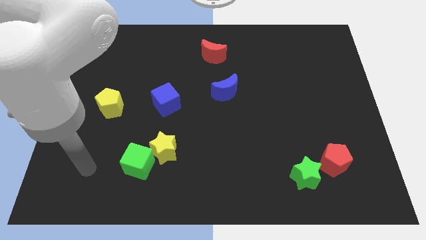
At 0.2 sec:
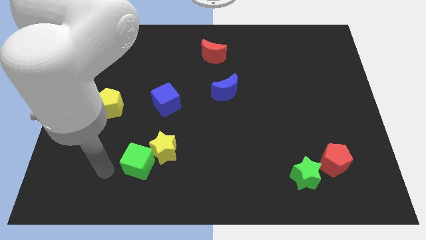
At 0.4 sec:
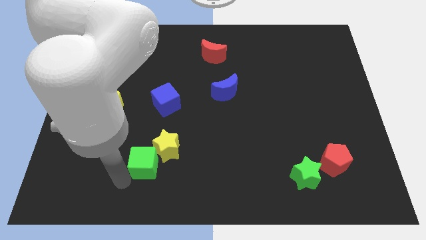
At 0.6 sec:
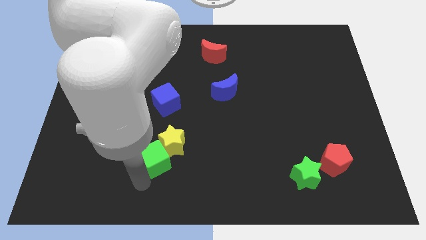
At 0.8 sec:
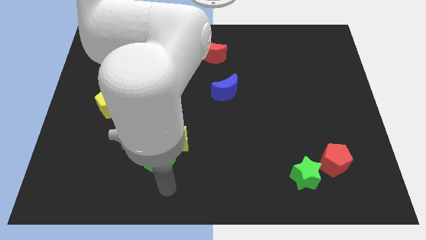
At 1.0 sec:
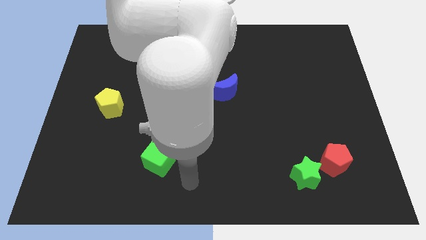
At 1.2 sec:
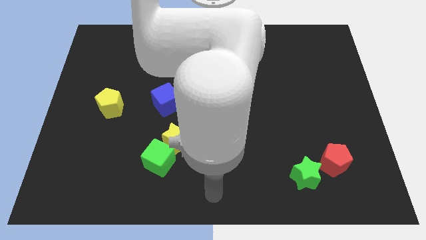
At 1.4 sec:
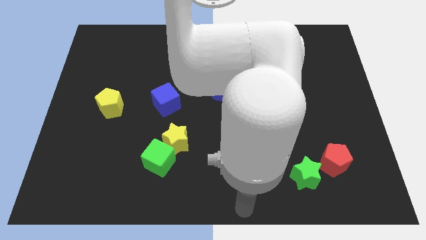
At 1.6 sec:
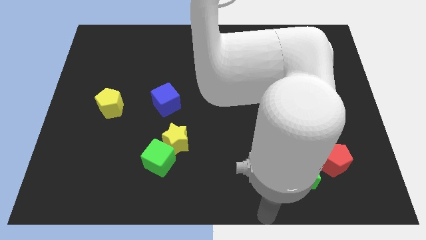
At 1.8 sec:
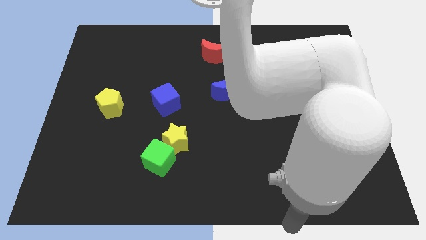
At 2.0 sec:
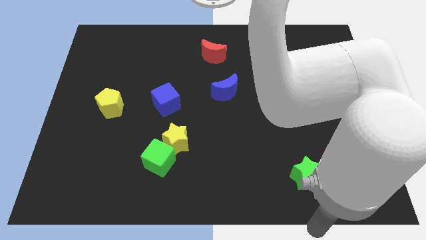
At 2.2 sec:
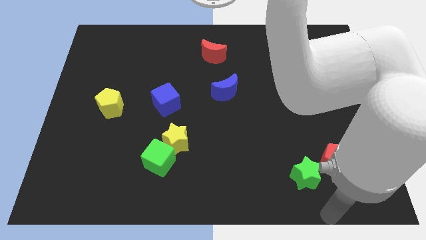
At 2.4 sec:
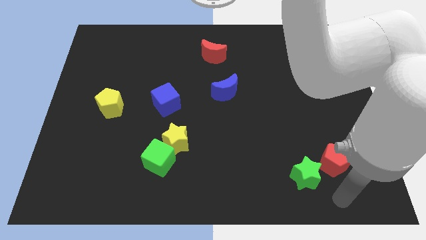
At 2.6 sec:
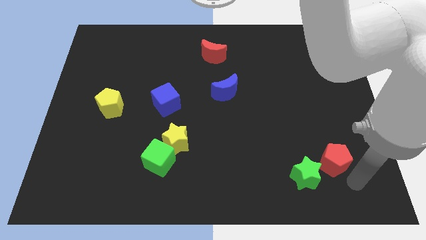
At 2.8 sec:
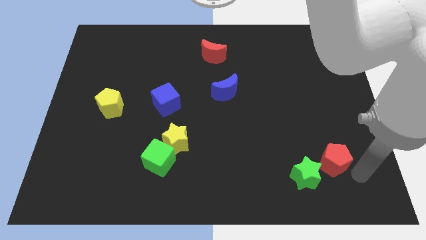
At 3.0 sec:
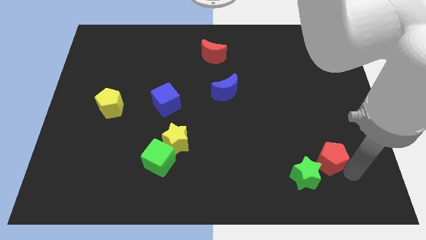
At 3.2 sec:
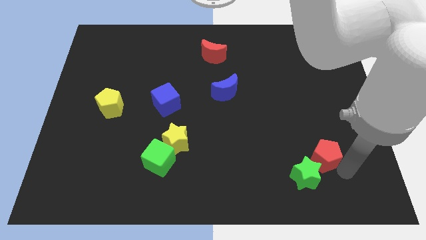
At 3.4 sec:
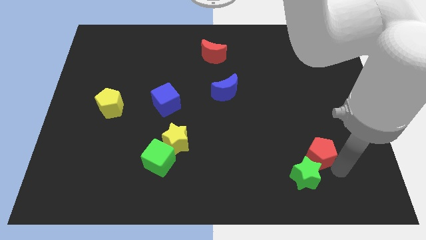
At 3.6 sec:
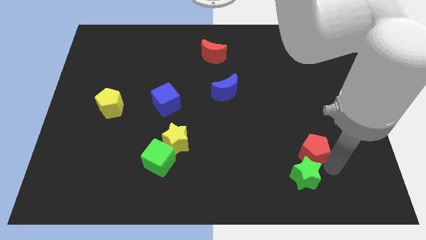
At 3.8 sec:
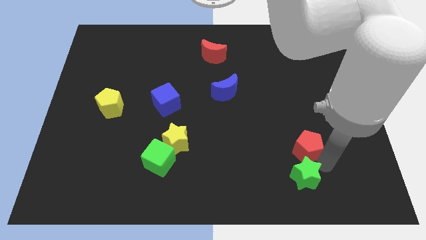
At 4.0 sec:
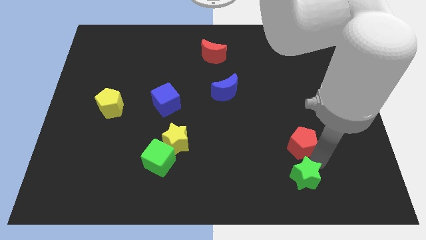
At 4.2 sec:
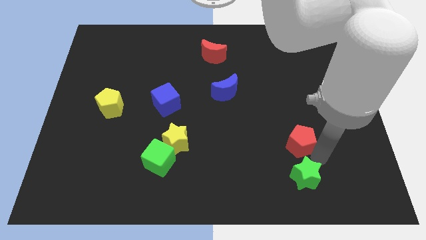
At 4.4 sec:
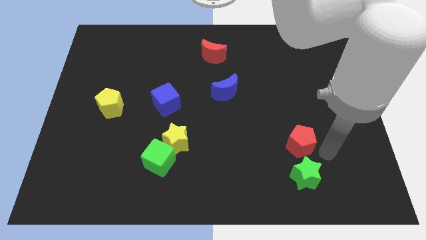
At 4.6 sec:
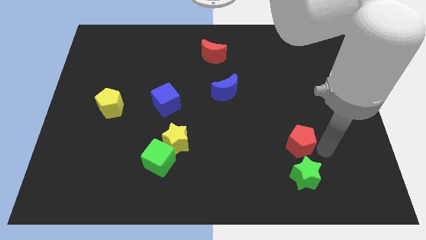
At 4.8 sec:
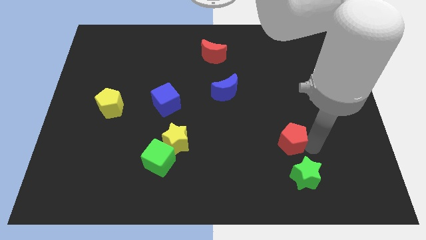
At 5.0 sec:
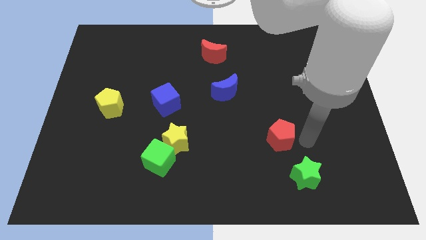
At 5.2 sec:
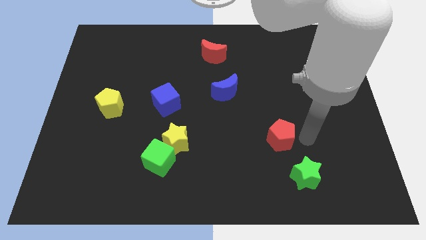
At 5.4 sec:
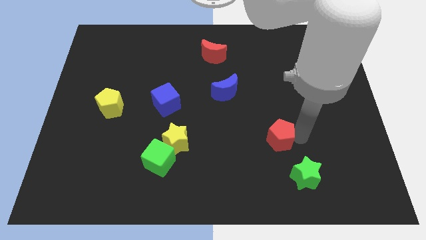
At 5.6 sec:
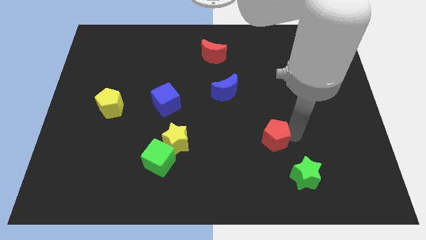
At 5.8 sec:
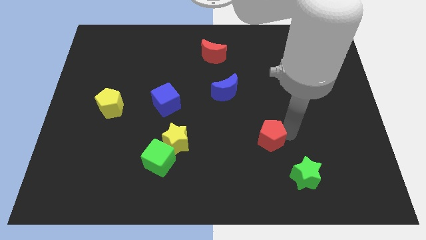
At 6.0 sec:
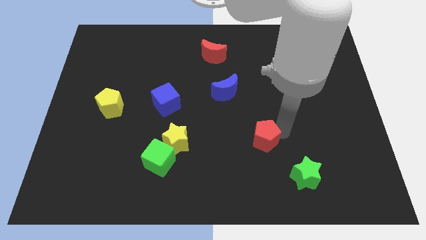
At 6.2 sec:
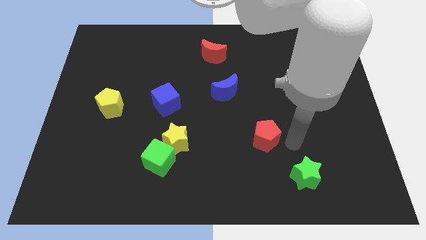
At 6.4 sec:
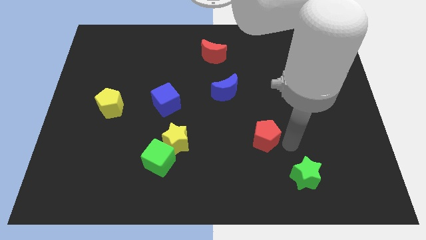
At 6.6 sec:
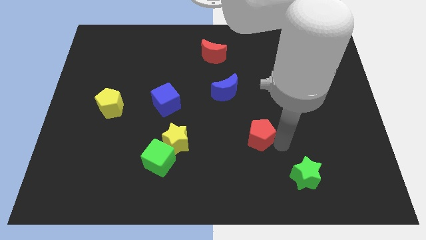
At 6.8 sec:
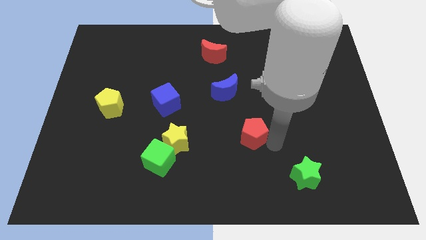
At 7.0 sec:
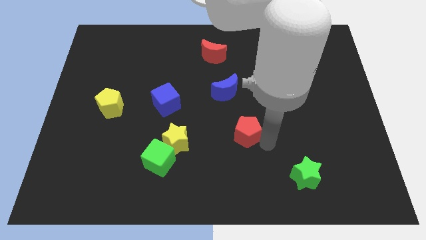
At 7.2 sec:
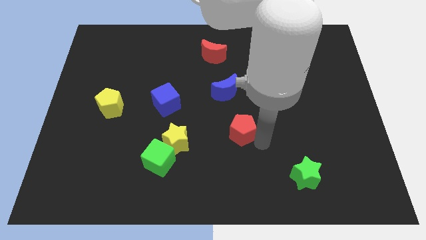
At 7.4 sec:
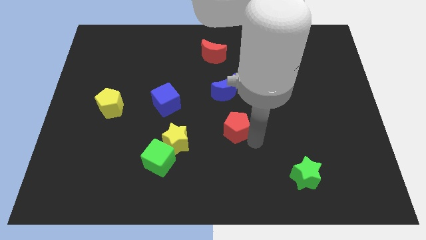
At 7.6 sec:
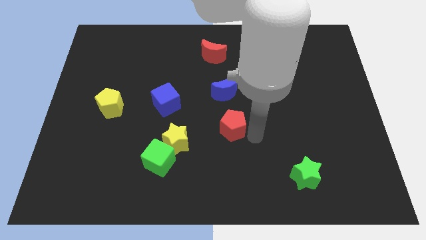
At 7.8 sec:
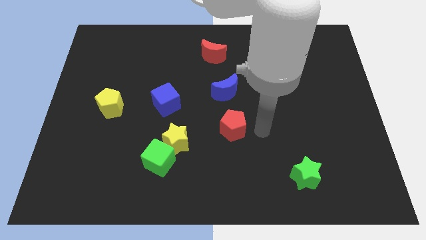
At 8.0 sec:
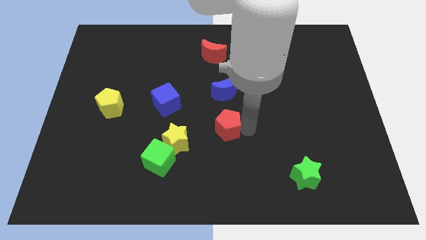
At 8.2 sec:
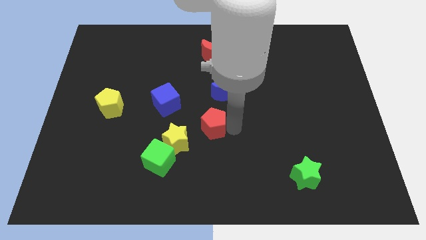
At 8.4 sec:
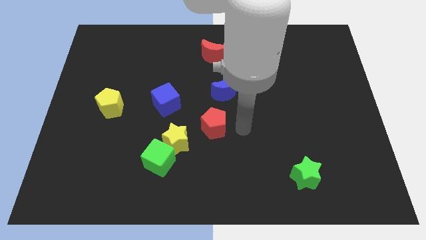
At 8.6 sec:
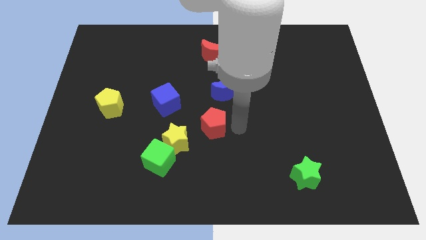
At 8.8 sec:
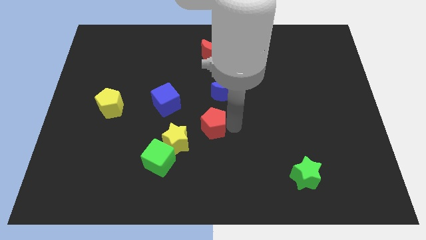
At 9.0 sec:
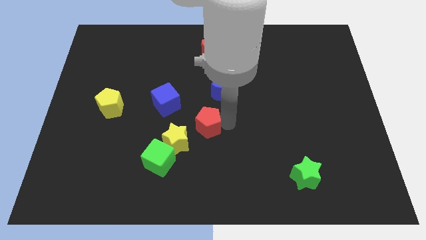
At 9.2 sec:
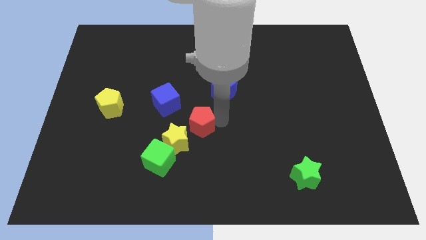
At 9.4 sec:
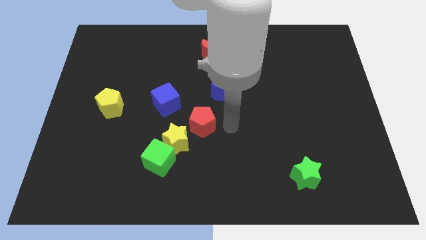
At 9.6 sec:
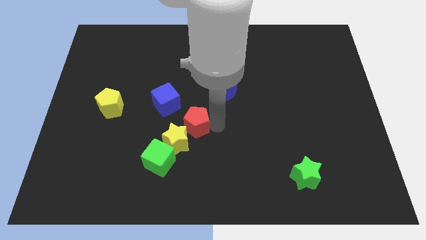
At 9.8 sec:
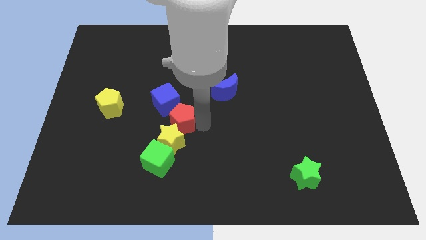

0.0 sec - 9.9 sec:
slide the red pentagon to the top side of the green cube

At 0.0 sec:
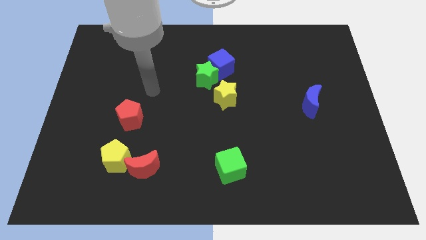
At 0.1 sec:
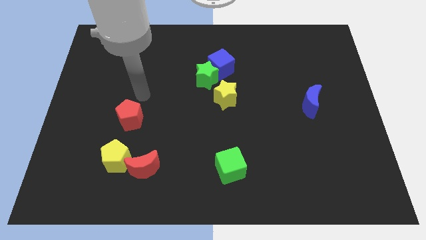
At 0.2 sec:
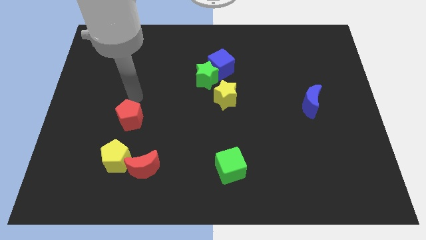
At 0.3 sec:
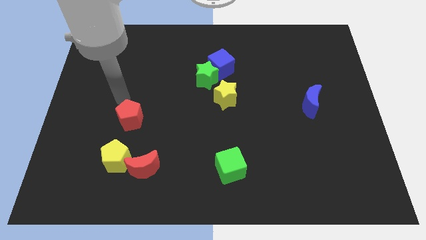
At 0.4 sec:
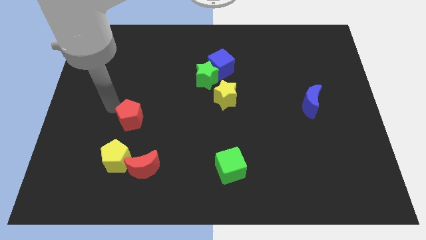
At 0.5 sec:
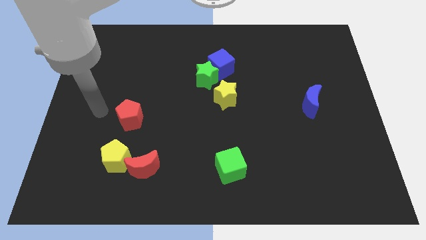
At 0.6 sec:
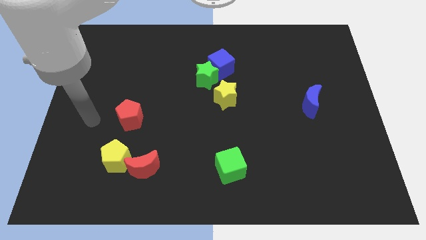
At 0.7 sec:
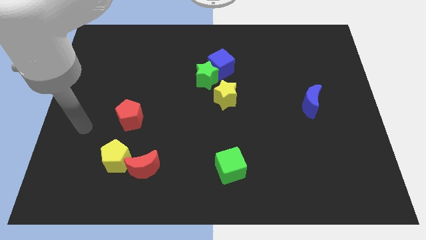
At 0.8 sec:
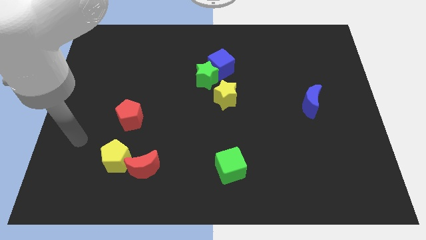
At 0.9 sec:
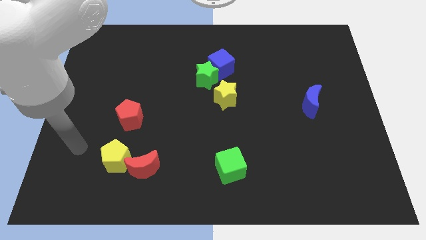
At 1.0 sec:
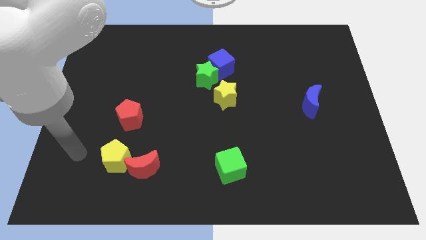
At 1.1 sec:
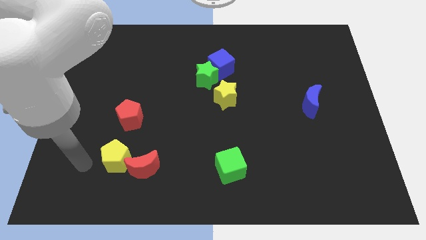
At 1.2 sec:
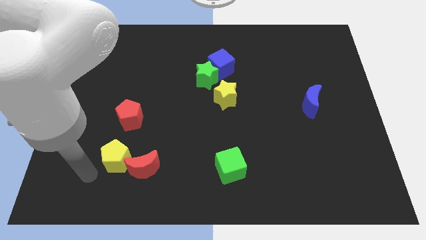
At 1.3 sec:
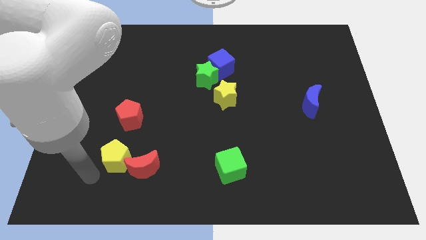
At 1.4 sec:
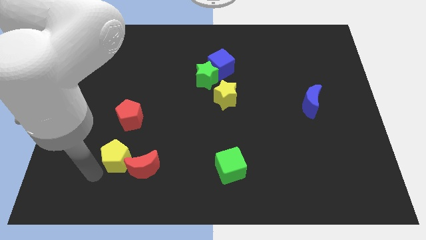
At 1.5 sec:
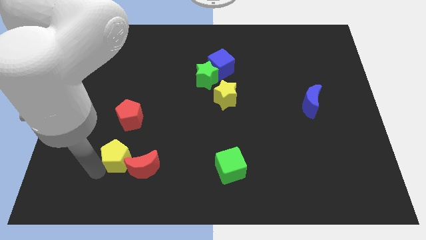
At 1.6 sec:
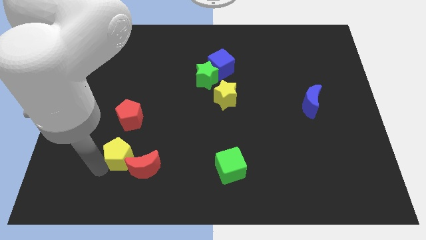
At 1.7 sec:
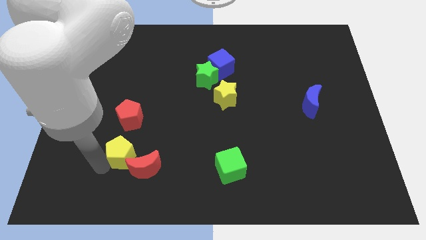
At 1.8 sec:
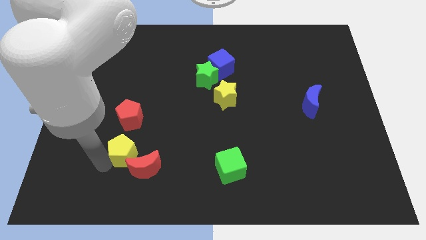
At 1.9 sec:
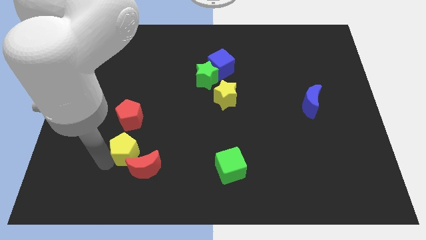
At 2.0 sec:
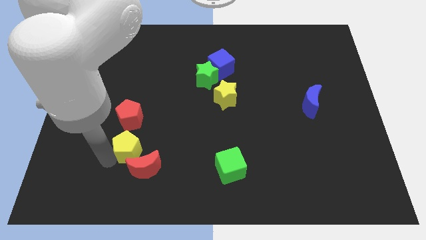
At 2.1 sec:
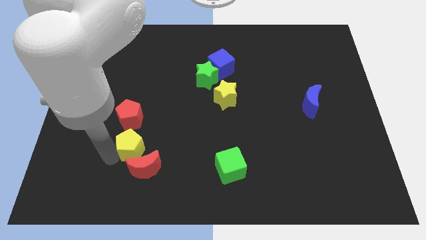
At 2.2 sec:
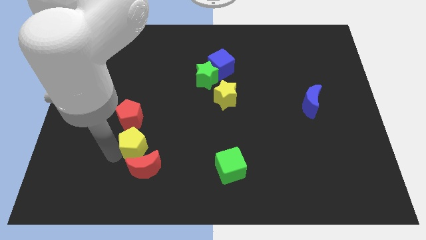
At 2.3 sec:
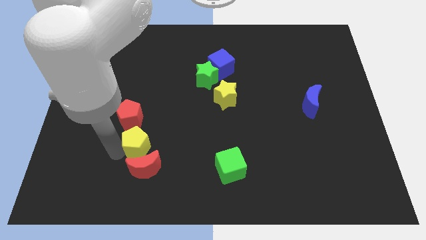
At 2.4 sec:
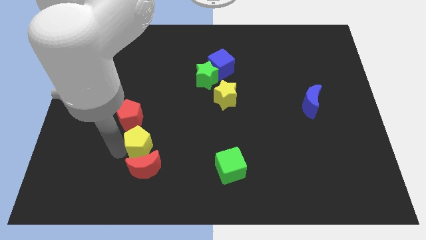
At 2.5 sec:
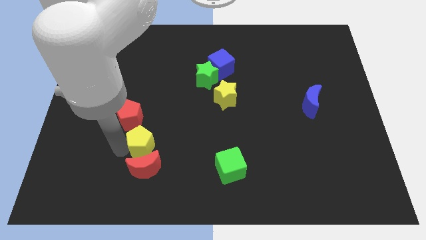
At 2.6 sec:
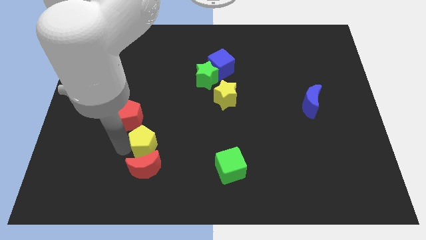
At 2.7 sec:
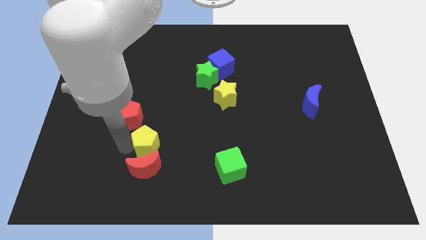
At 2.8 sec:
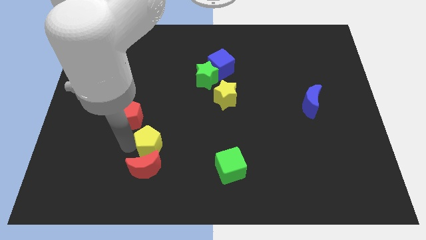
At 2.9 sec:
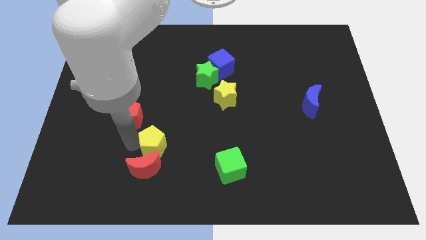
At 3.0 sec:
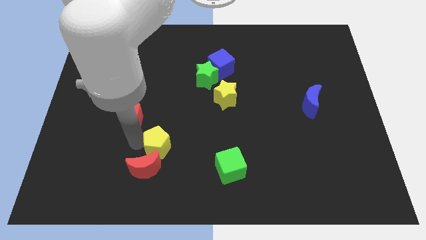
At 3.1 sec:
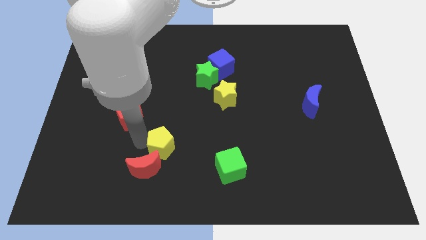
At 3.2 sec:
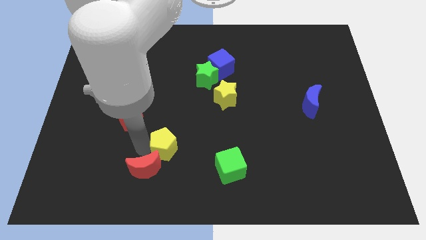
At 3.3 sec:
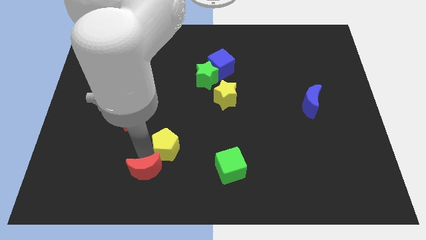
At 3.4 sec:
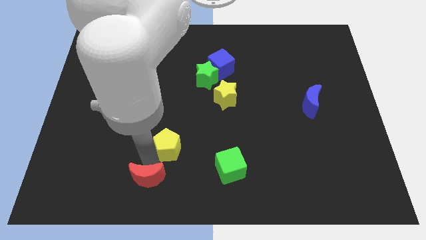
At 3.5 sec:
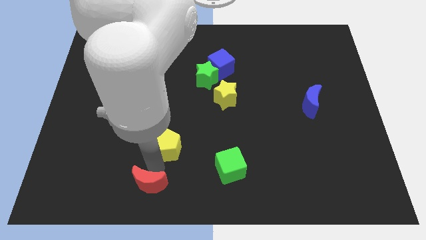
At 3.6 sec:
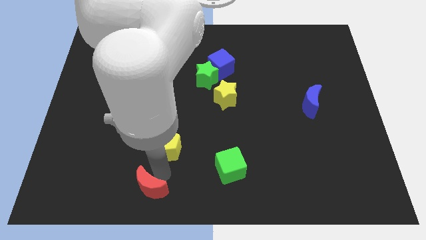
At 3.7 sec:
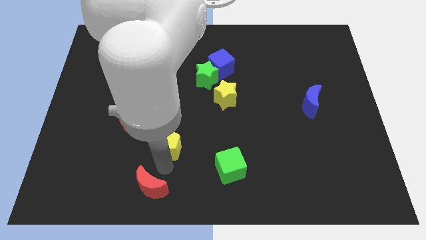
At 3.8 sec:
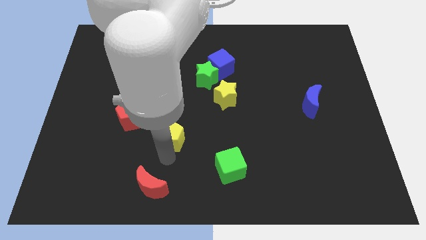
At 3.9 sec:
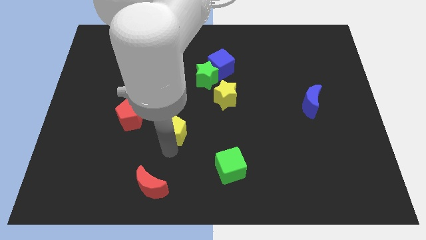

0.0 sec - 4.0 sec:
push the yellow pentagon right of the red pentagon
